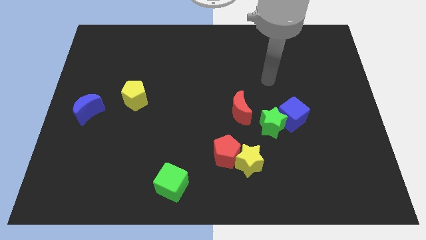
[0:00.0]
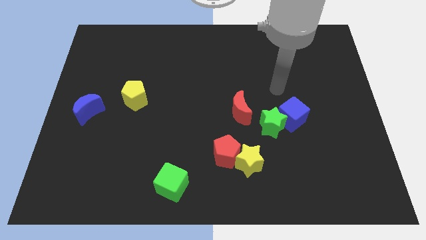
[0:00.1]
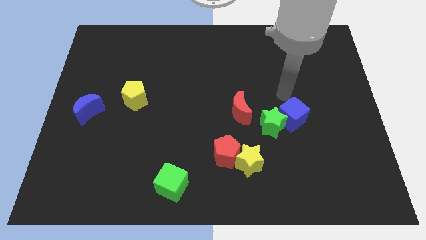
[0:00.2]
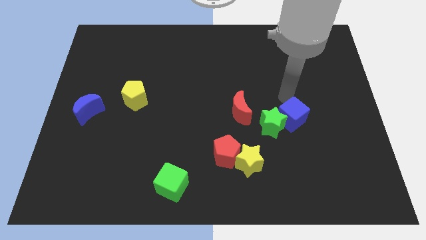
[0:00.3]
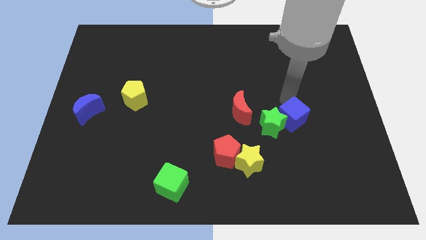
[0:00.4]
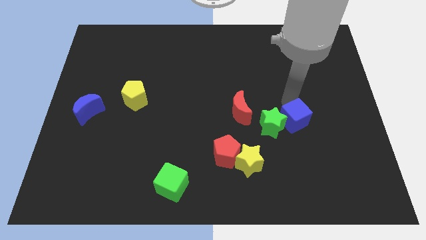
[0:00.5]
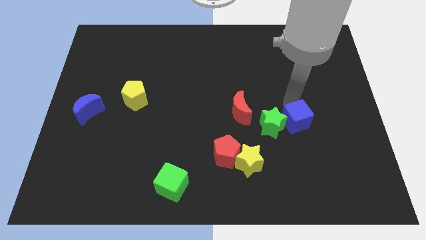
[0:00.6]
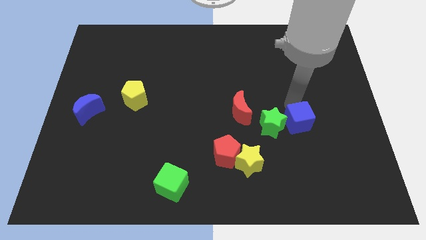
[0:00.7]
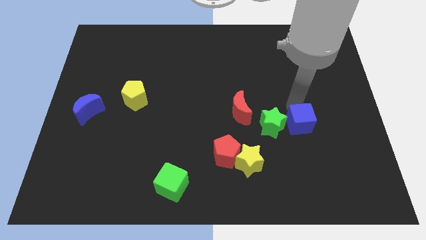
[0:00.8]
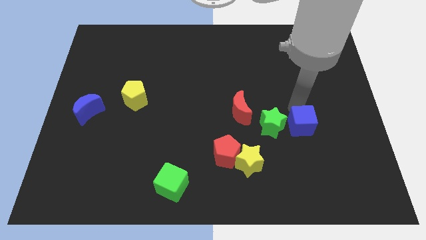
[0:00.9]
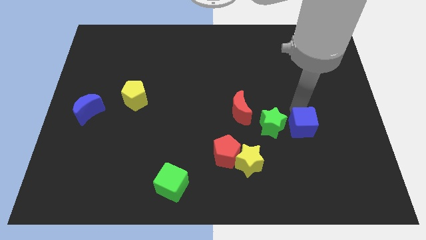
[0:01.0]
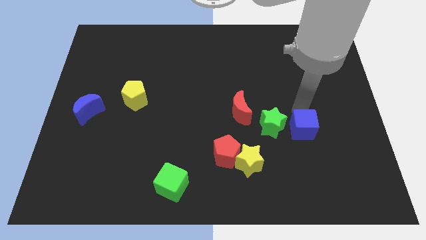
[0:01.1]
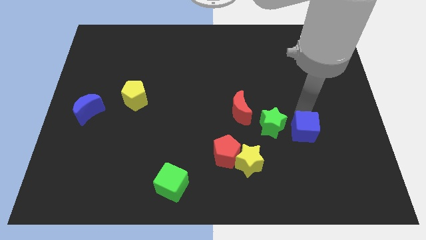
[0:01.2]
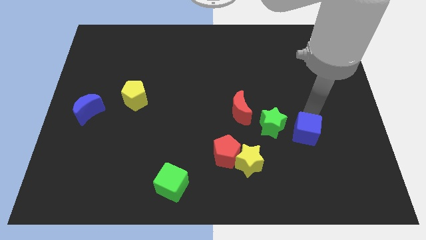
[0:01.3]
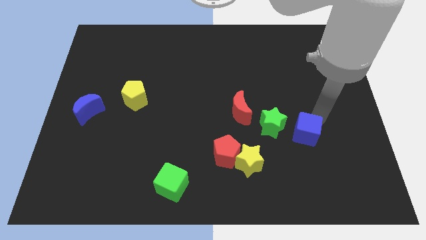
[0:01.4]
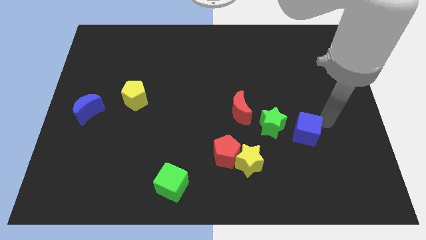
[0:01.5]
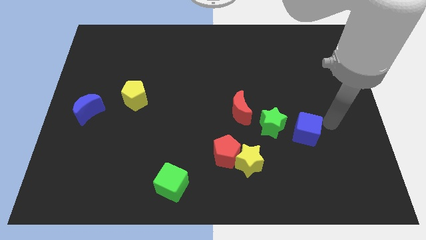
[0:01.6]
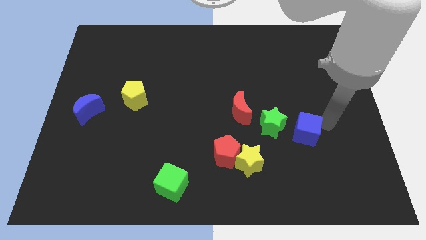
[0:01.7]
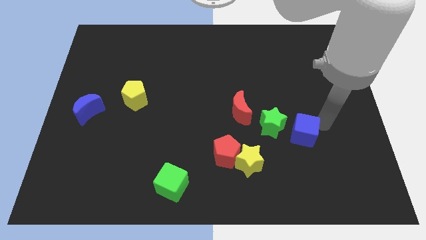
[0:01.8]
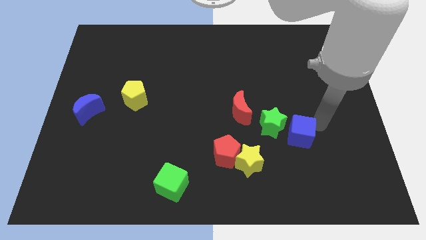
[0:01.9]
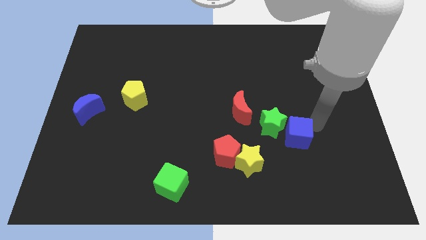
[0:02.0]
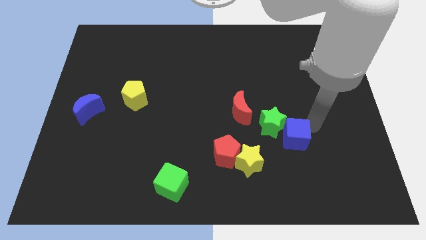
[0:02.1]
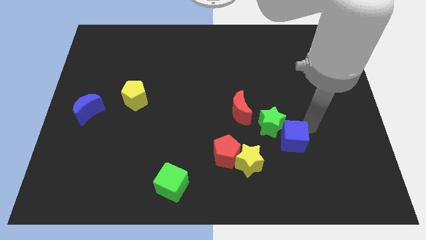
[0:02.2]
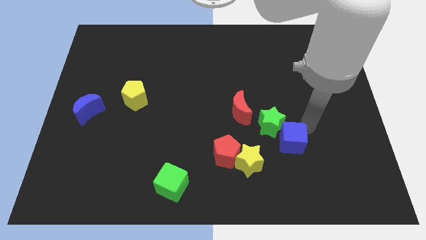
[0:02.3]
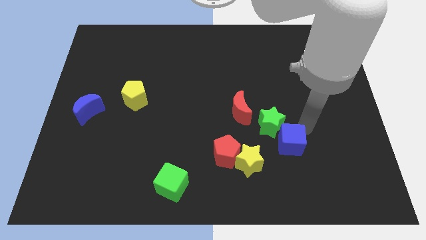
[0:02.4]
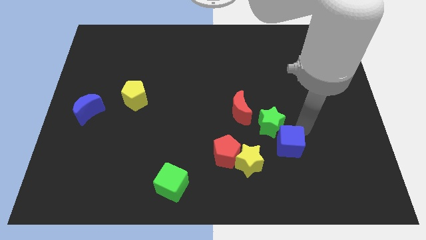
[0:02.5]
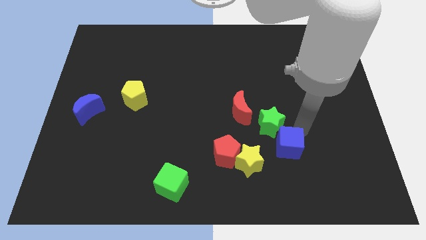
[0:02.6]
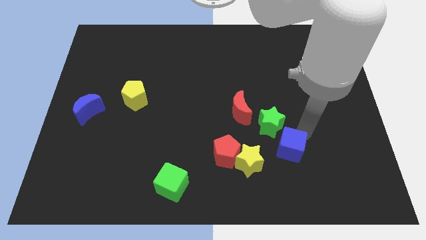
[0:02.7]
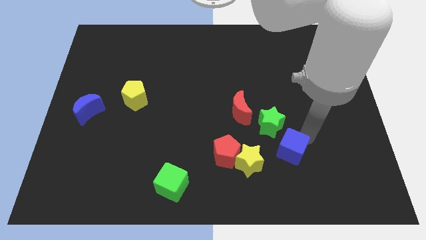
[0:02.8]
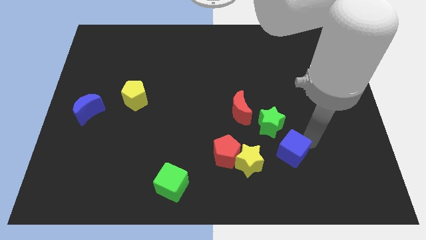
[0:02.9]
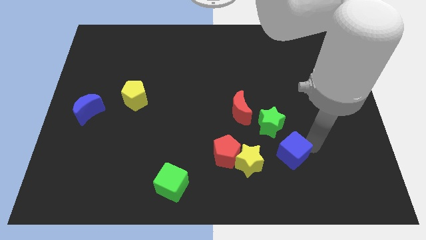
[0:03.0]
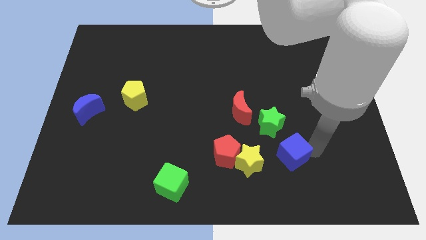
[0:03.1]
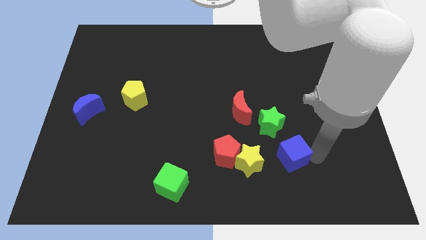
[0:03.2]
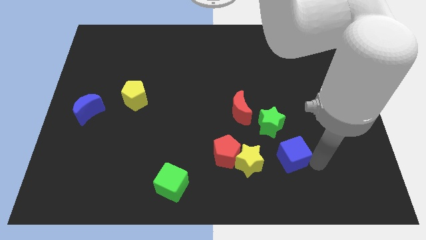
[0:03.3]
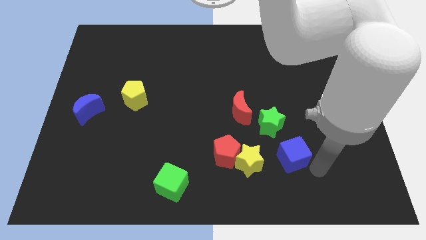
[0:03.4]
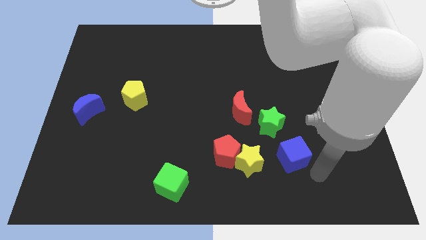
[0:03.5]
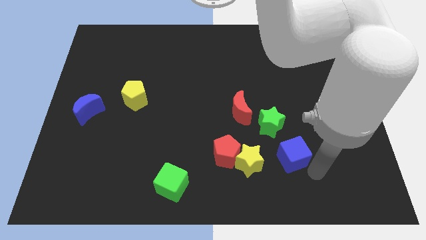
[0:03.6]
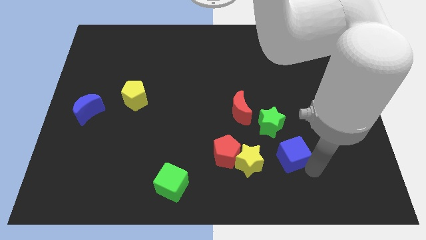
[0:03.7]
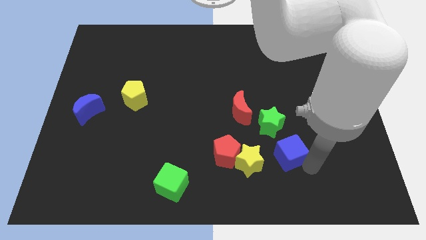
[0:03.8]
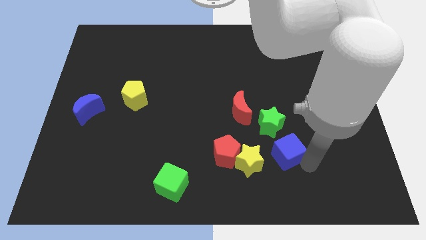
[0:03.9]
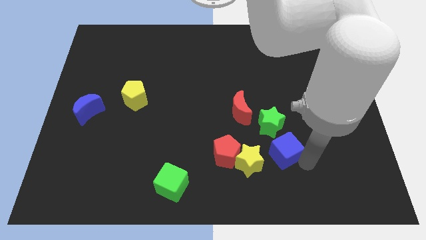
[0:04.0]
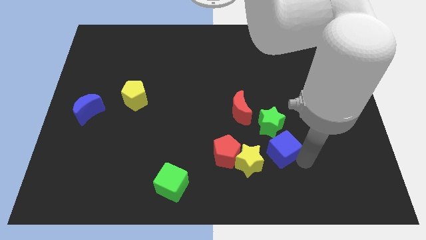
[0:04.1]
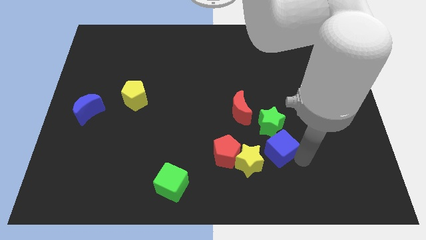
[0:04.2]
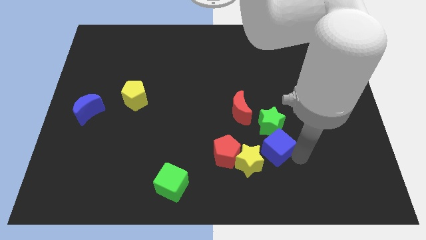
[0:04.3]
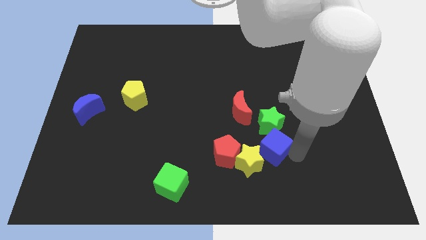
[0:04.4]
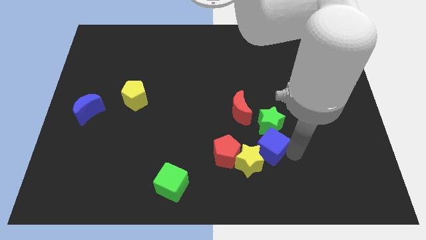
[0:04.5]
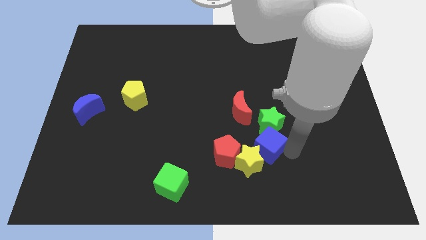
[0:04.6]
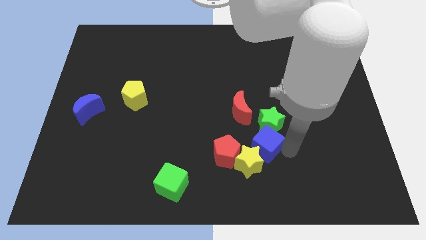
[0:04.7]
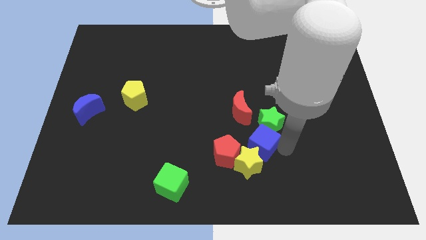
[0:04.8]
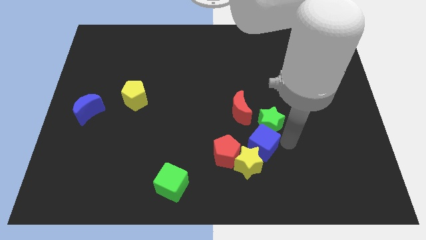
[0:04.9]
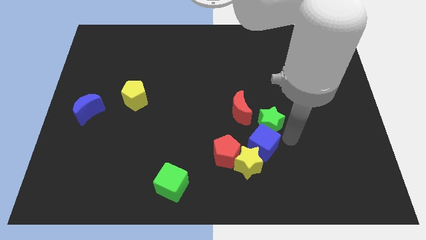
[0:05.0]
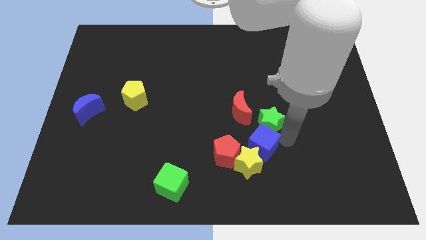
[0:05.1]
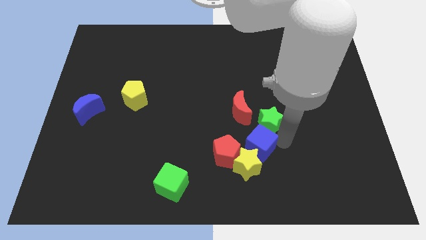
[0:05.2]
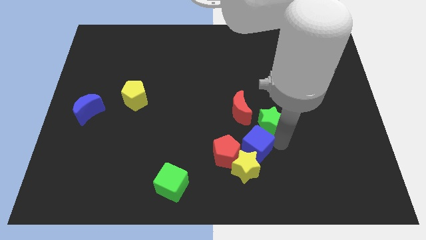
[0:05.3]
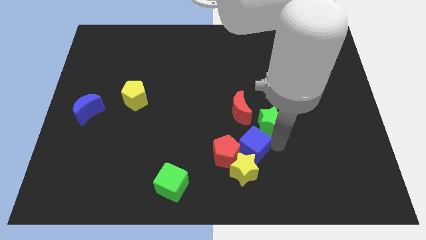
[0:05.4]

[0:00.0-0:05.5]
put the blue cube close to the red pentagon

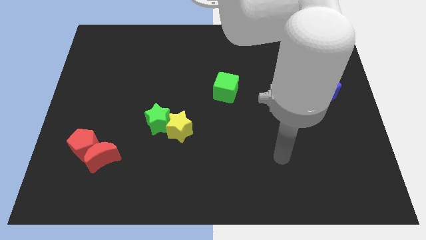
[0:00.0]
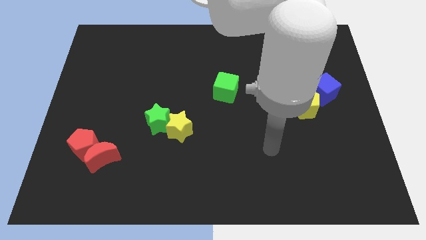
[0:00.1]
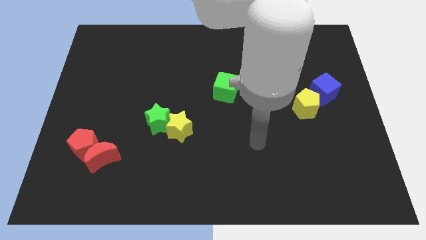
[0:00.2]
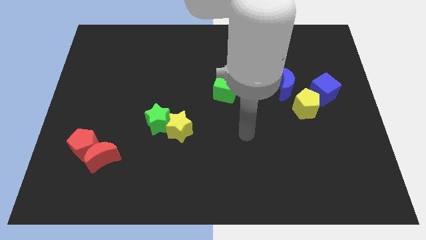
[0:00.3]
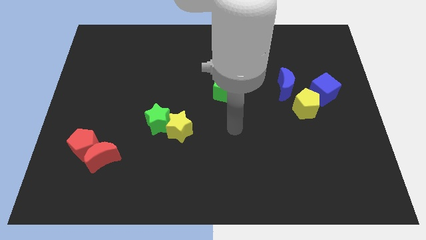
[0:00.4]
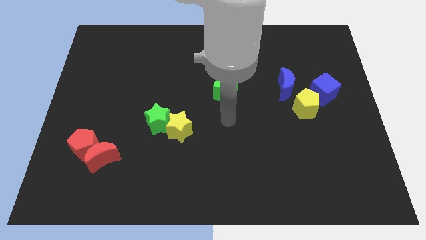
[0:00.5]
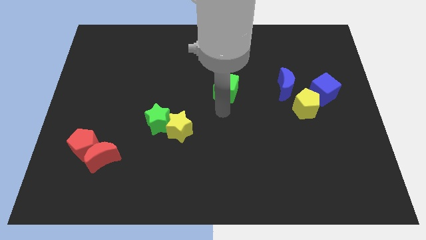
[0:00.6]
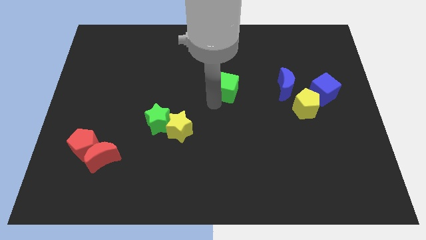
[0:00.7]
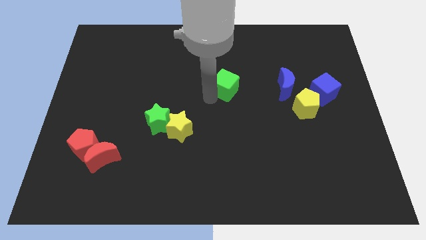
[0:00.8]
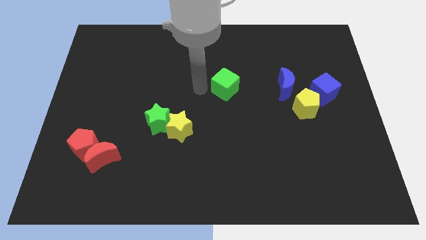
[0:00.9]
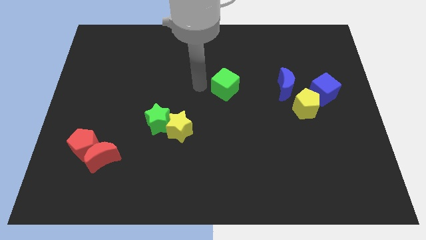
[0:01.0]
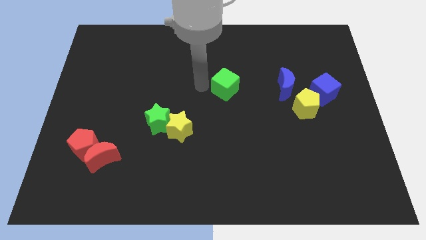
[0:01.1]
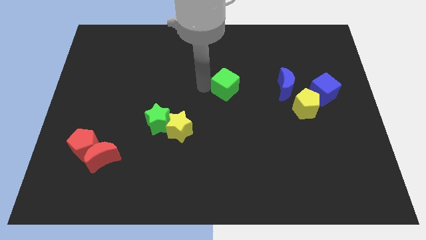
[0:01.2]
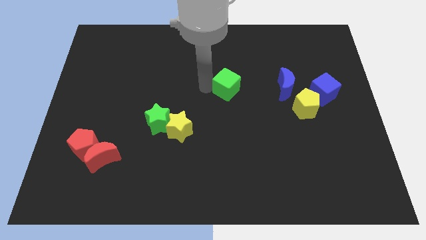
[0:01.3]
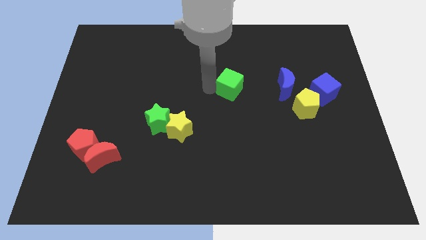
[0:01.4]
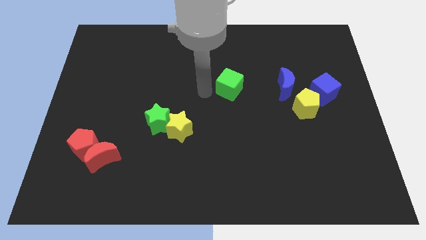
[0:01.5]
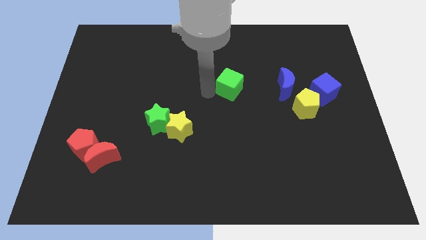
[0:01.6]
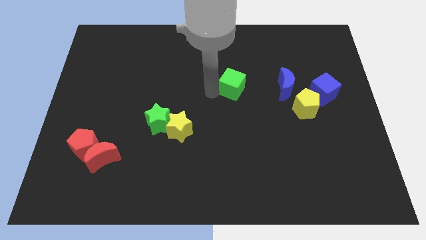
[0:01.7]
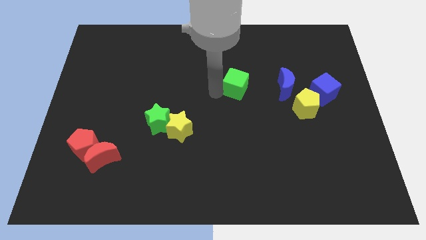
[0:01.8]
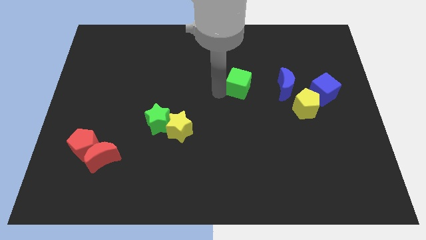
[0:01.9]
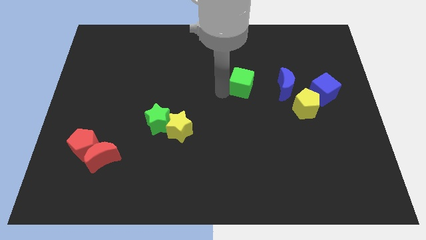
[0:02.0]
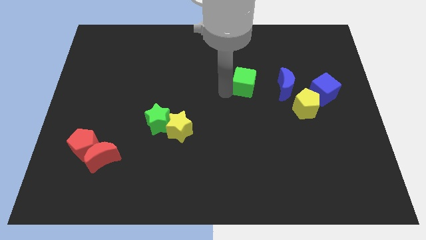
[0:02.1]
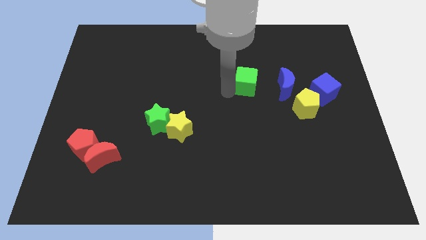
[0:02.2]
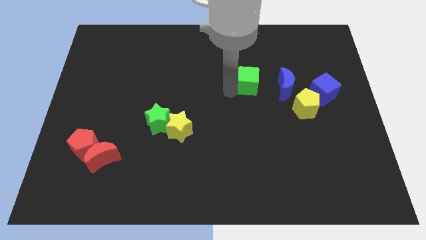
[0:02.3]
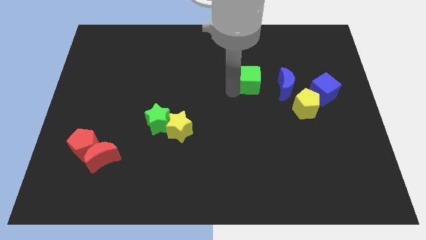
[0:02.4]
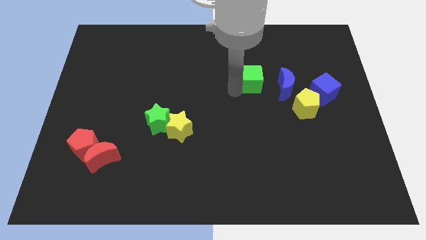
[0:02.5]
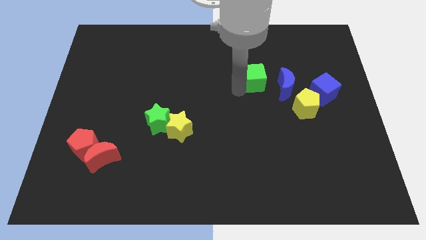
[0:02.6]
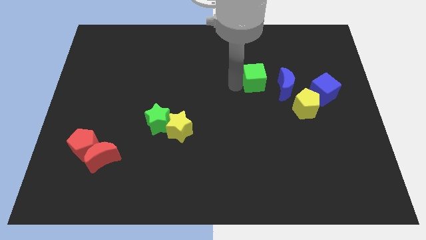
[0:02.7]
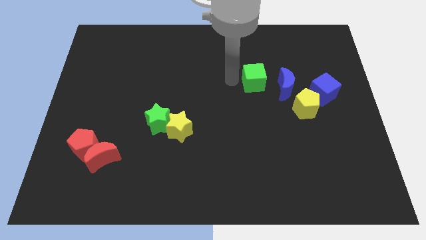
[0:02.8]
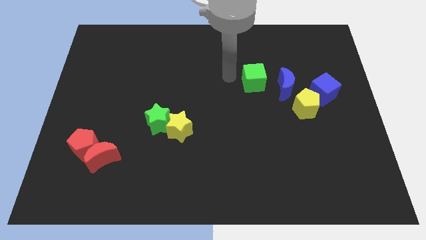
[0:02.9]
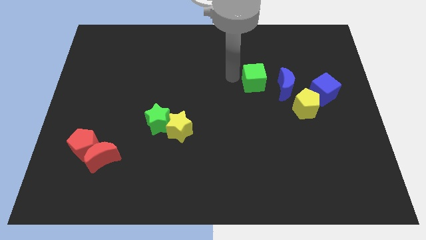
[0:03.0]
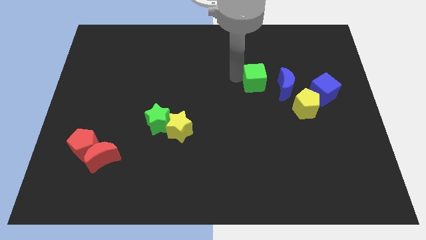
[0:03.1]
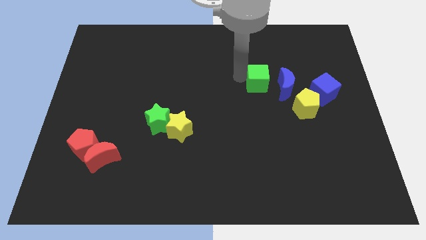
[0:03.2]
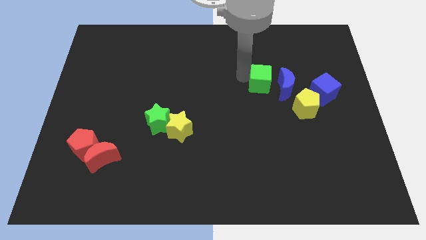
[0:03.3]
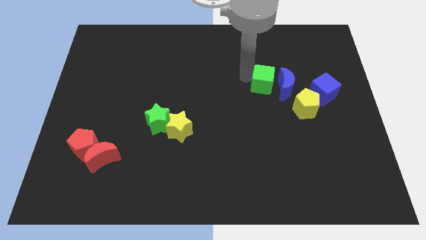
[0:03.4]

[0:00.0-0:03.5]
move the green cube close to the blue moon
